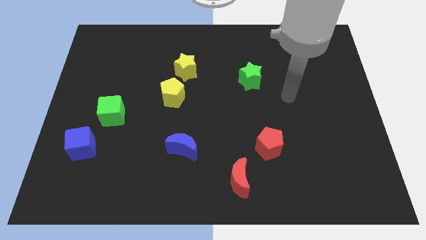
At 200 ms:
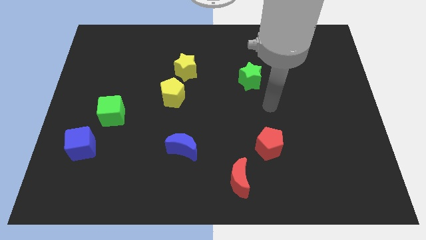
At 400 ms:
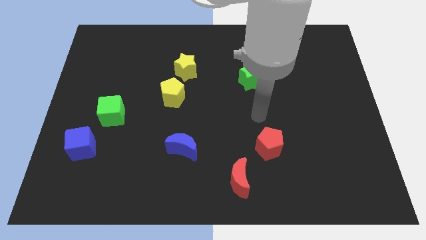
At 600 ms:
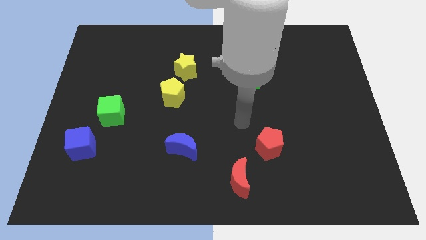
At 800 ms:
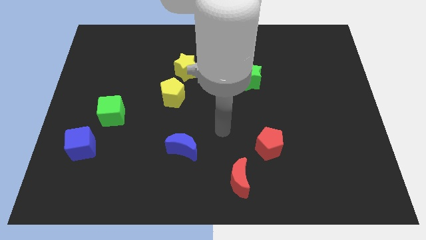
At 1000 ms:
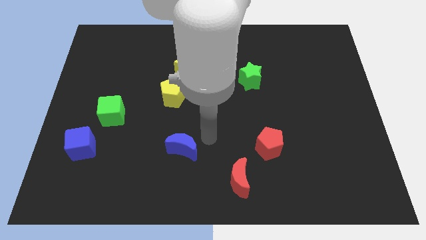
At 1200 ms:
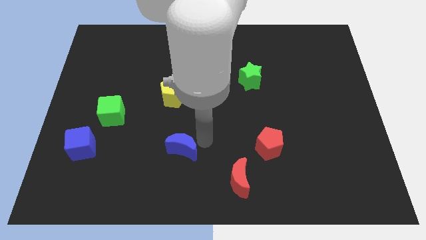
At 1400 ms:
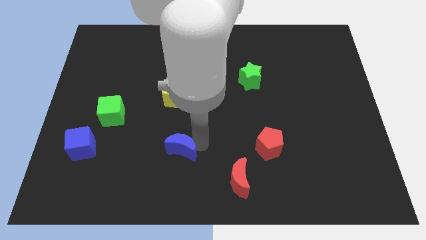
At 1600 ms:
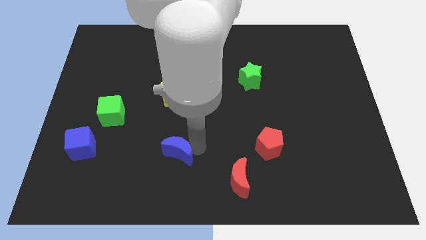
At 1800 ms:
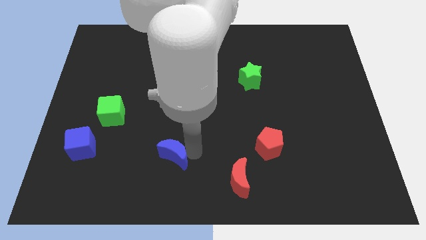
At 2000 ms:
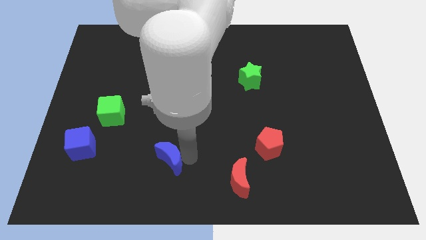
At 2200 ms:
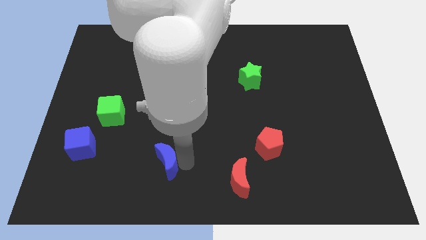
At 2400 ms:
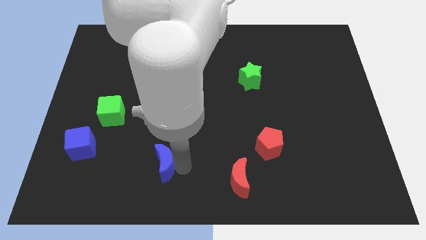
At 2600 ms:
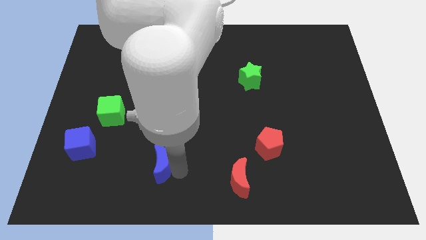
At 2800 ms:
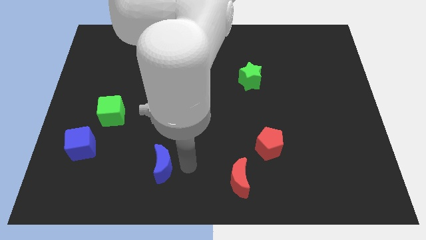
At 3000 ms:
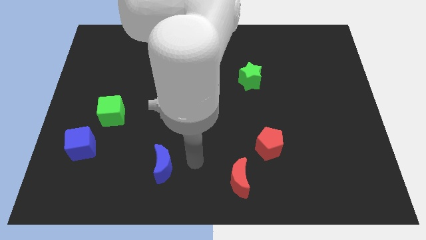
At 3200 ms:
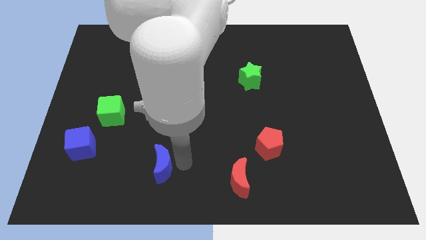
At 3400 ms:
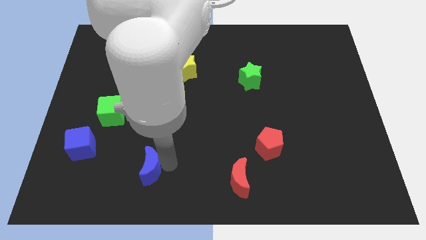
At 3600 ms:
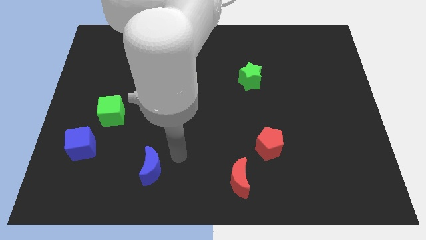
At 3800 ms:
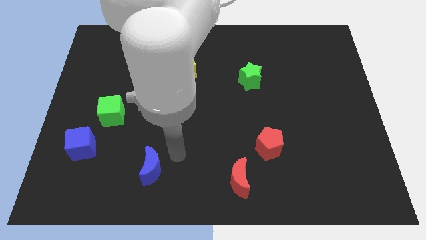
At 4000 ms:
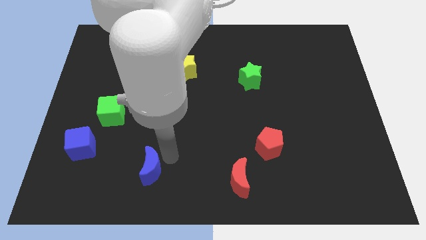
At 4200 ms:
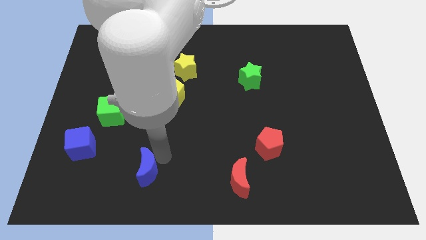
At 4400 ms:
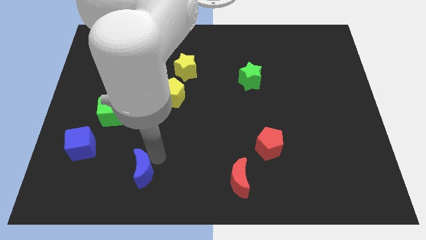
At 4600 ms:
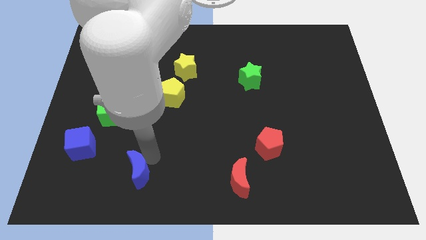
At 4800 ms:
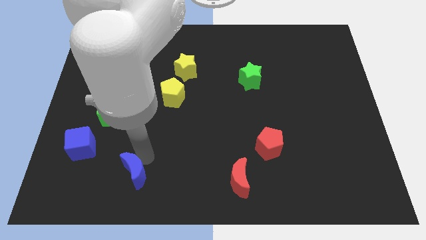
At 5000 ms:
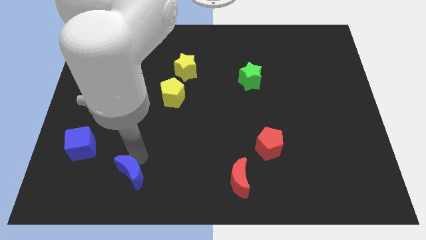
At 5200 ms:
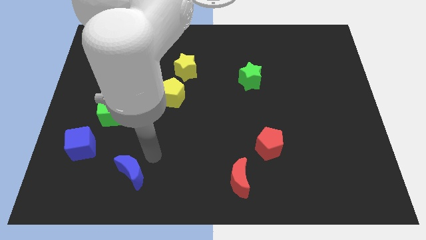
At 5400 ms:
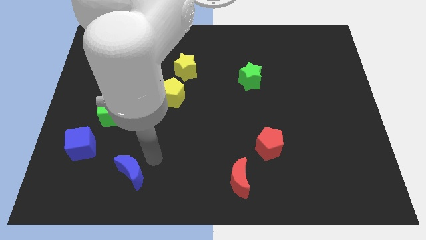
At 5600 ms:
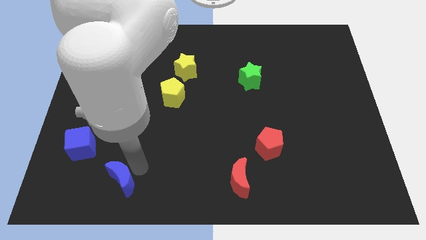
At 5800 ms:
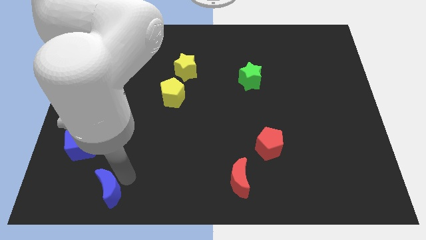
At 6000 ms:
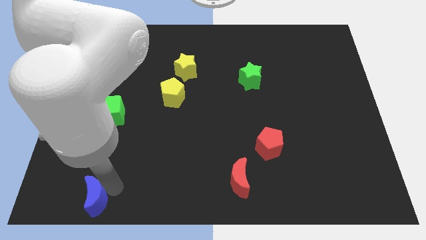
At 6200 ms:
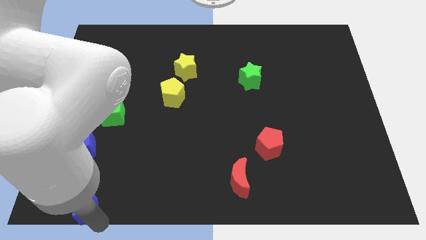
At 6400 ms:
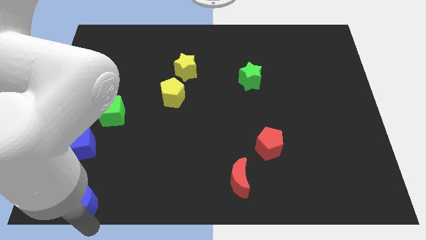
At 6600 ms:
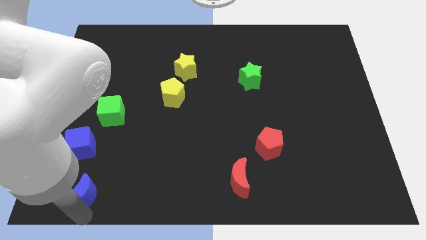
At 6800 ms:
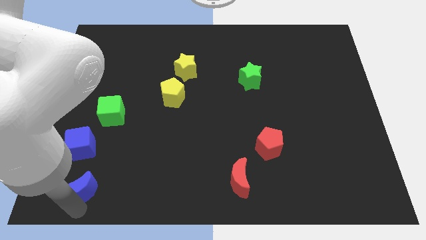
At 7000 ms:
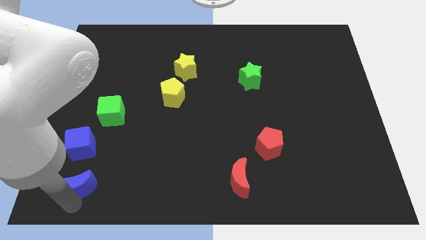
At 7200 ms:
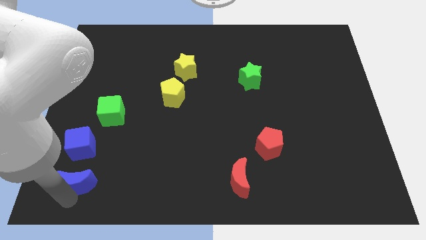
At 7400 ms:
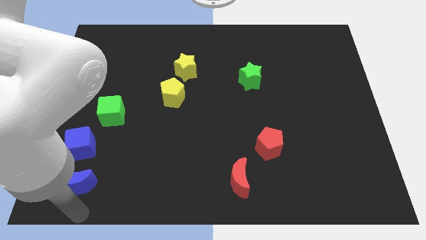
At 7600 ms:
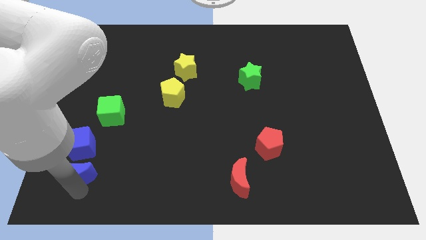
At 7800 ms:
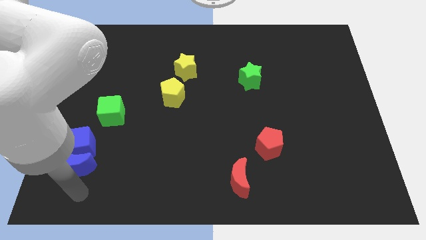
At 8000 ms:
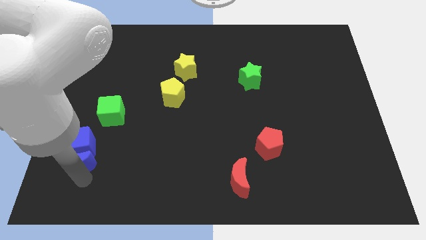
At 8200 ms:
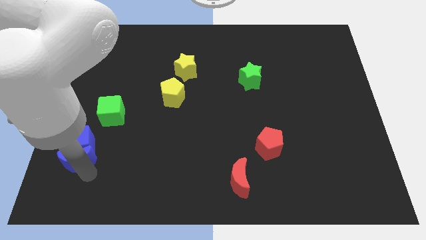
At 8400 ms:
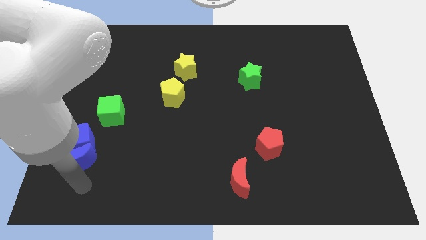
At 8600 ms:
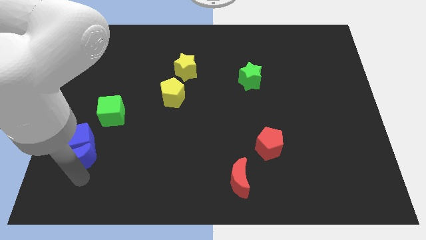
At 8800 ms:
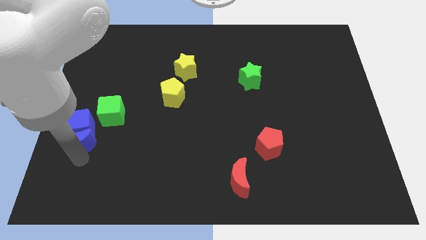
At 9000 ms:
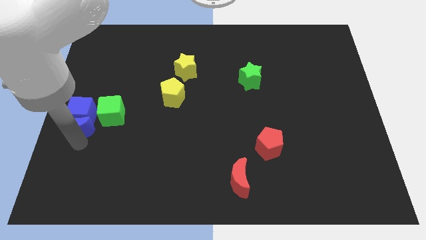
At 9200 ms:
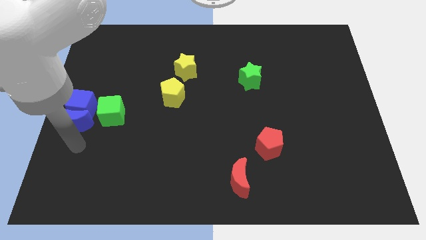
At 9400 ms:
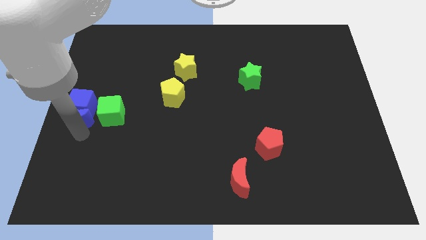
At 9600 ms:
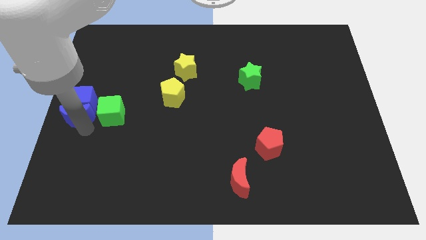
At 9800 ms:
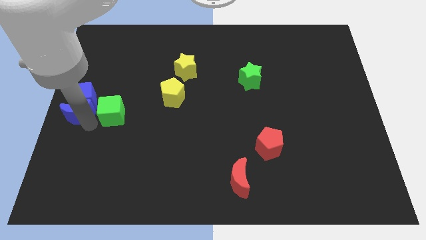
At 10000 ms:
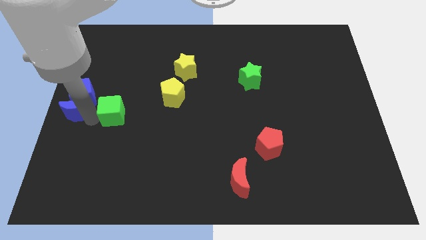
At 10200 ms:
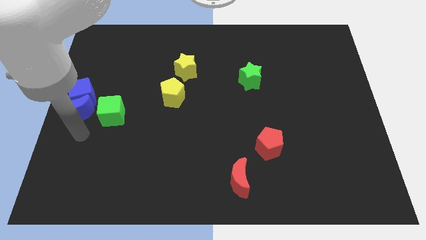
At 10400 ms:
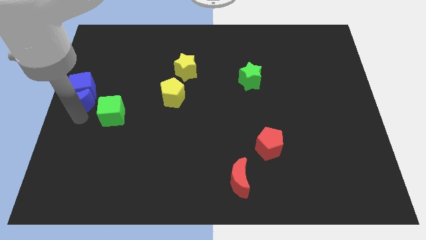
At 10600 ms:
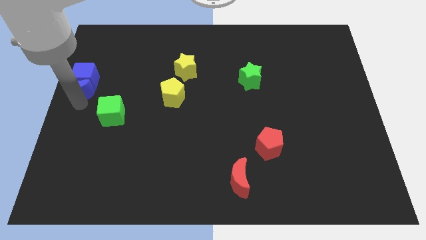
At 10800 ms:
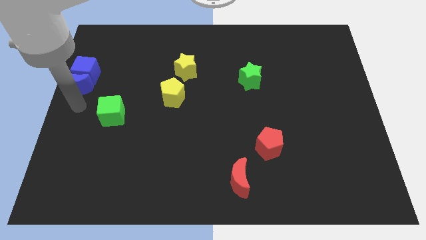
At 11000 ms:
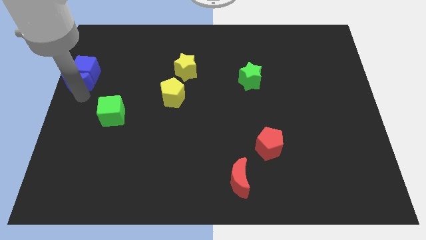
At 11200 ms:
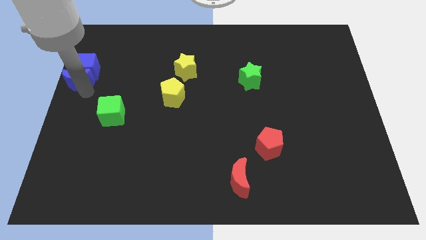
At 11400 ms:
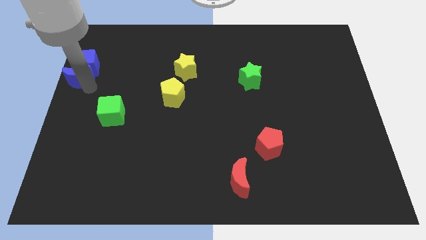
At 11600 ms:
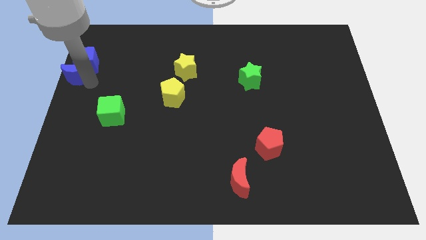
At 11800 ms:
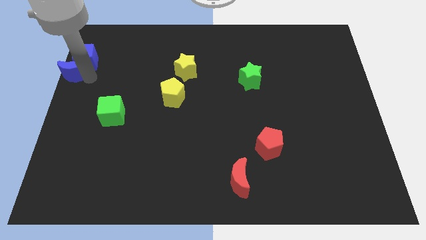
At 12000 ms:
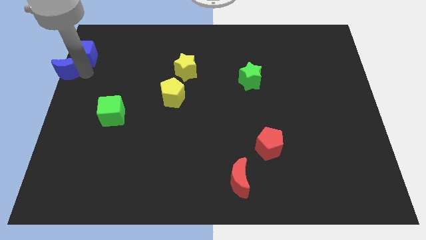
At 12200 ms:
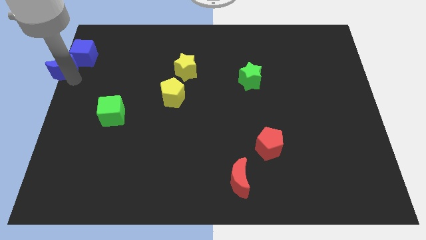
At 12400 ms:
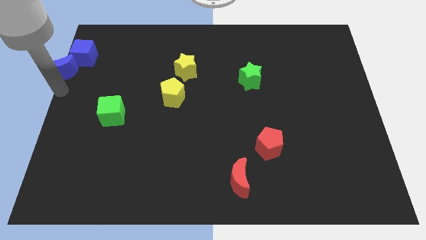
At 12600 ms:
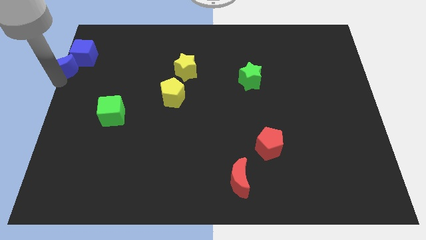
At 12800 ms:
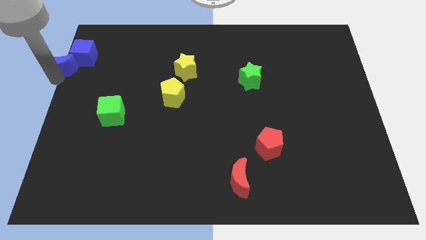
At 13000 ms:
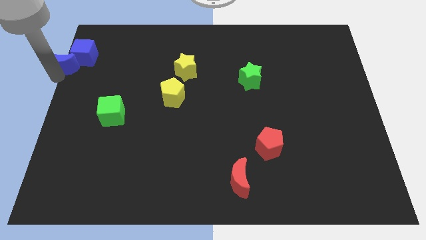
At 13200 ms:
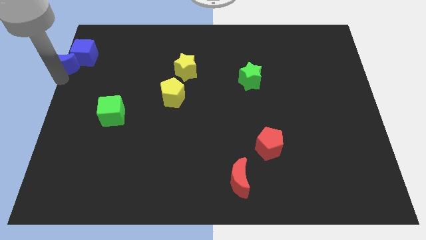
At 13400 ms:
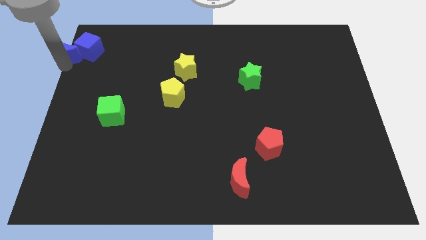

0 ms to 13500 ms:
push the blue moon to the top left

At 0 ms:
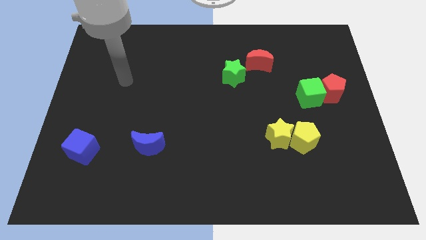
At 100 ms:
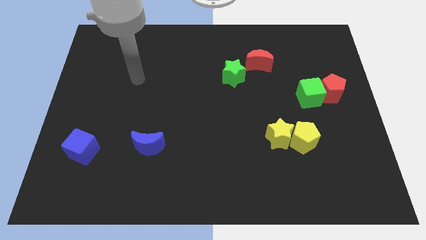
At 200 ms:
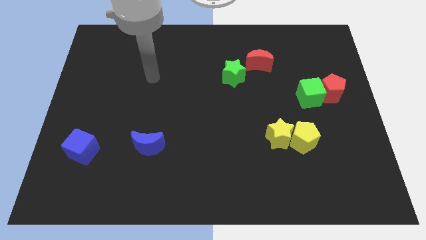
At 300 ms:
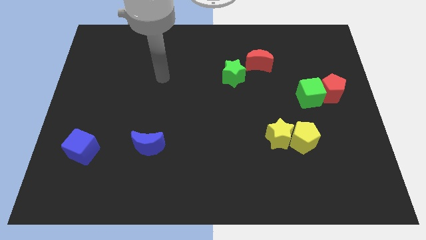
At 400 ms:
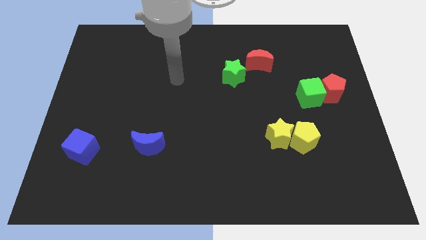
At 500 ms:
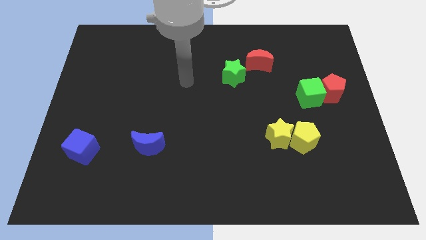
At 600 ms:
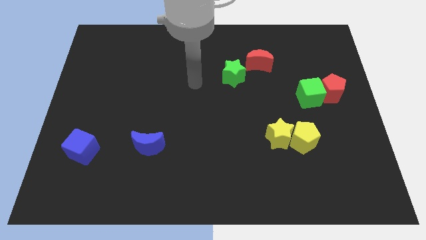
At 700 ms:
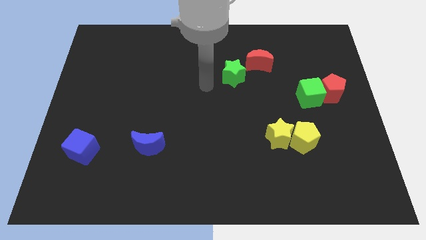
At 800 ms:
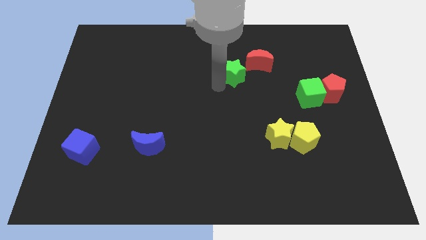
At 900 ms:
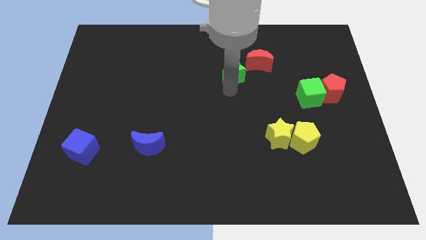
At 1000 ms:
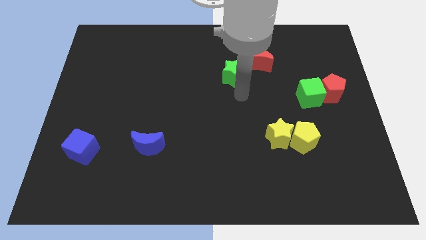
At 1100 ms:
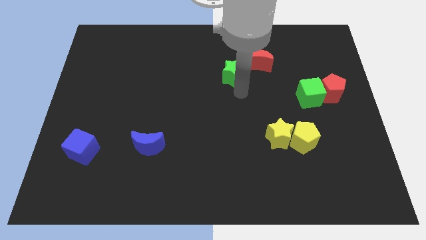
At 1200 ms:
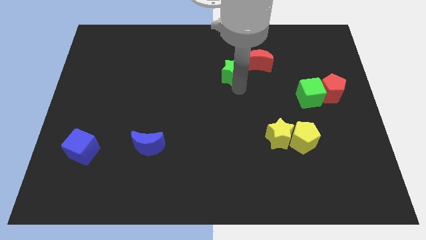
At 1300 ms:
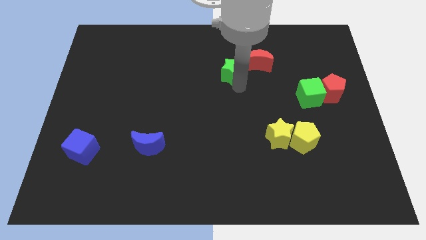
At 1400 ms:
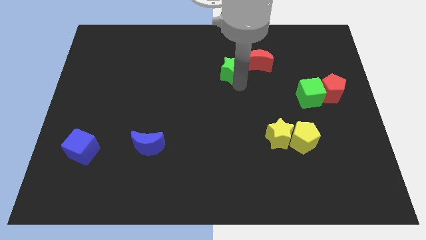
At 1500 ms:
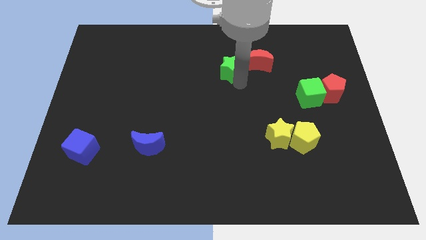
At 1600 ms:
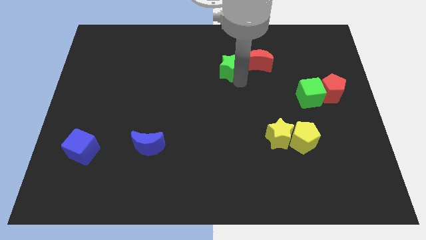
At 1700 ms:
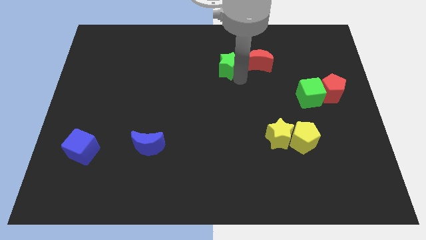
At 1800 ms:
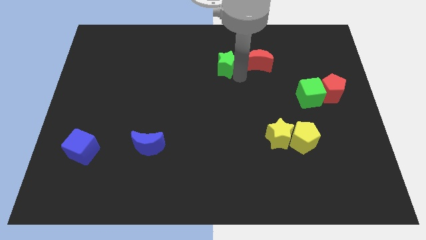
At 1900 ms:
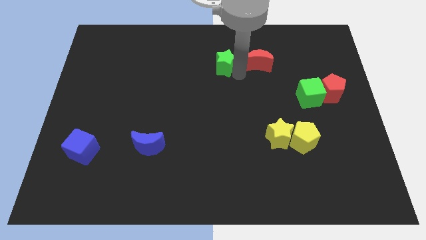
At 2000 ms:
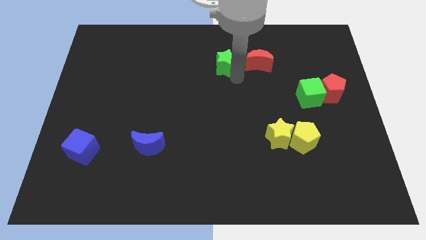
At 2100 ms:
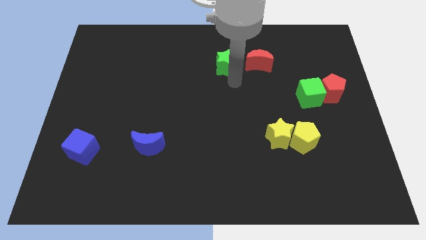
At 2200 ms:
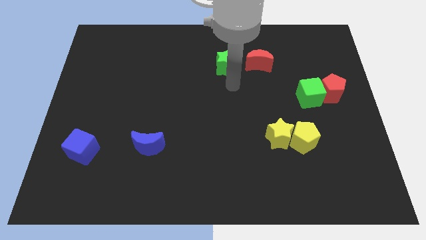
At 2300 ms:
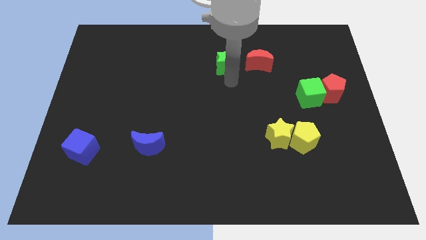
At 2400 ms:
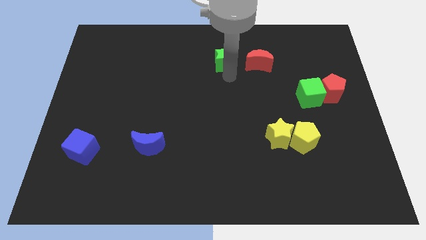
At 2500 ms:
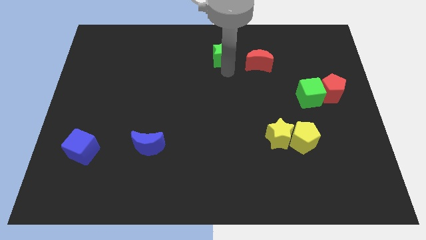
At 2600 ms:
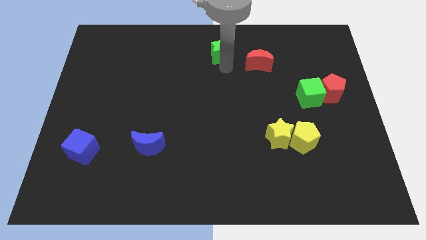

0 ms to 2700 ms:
slide the green star to the towards your base
